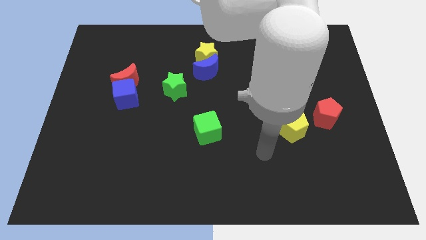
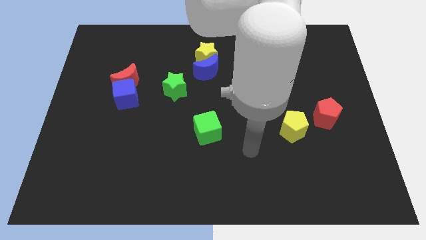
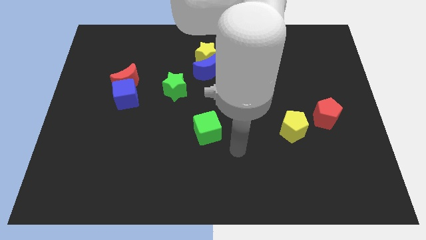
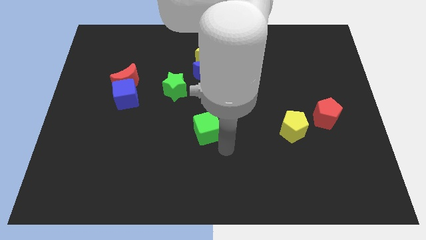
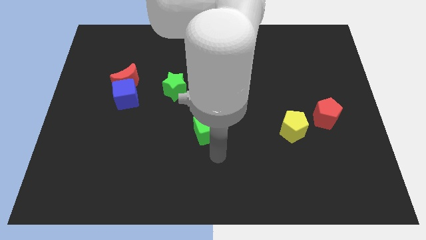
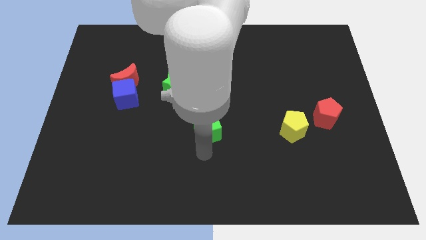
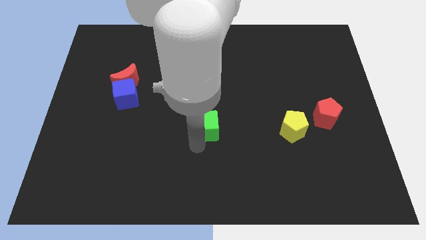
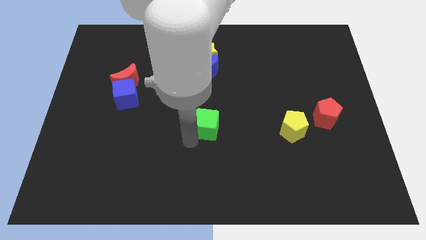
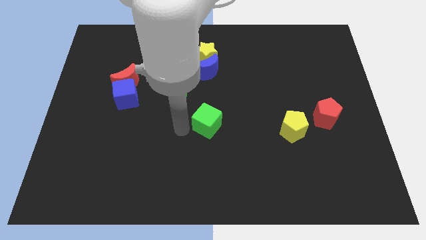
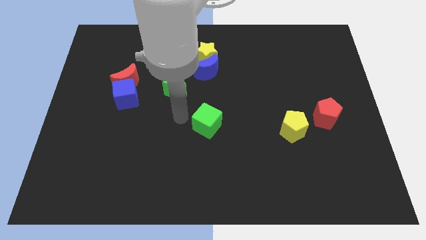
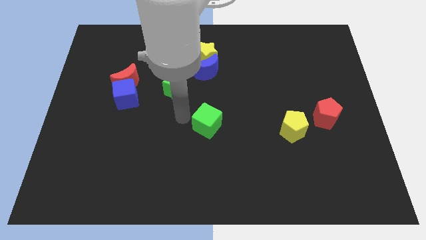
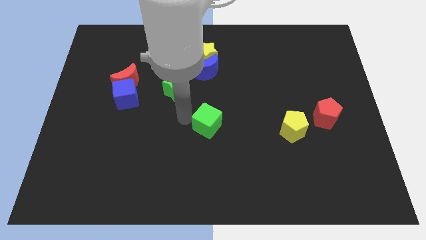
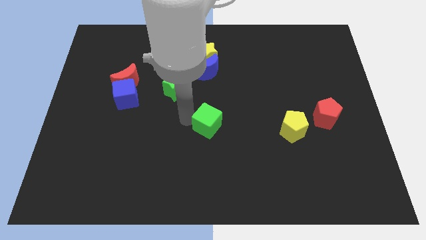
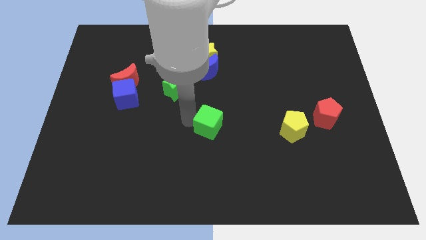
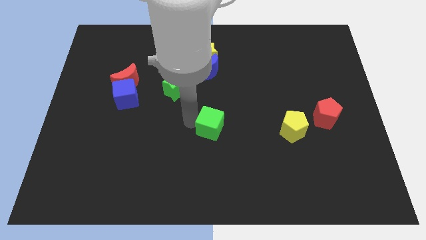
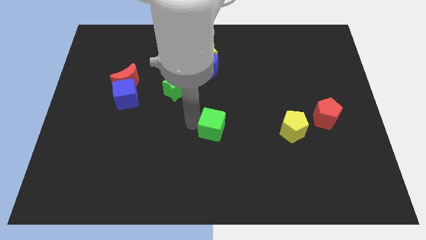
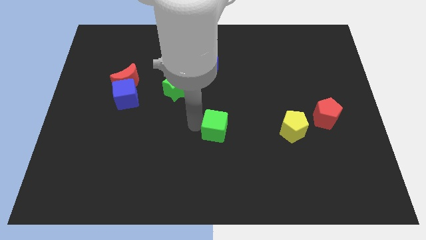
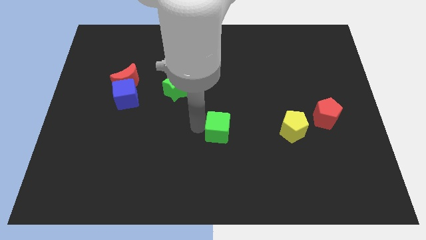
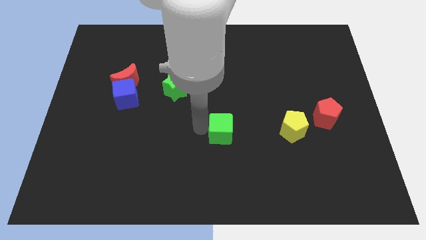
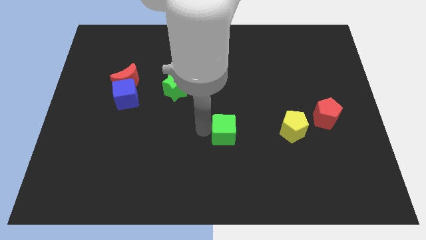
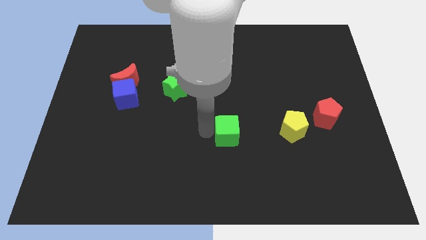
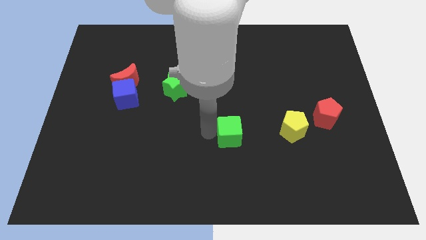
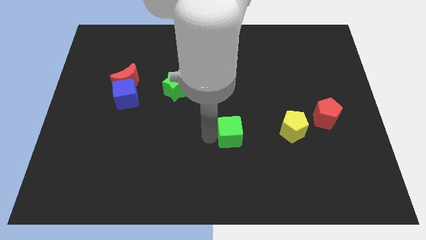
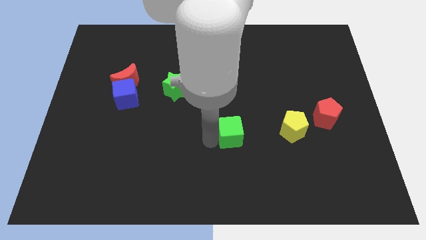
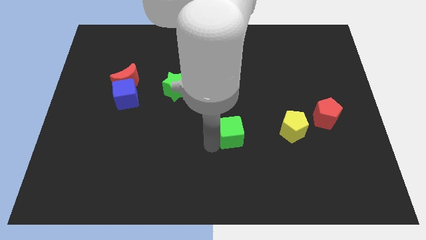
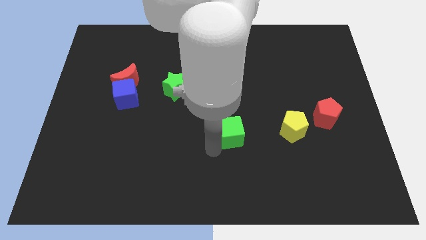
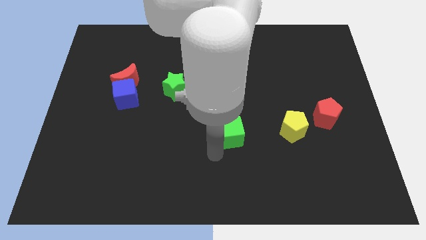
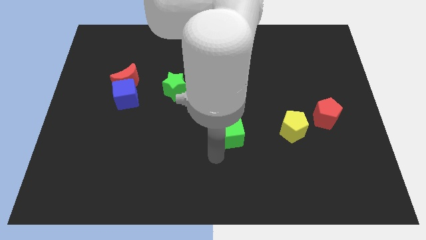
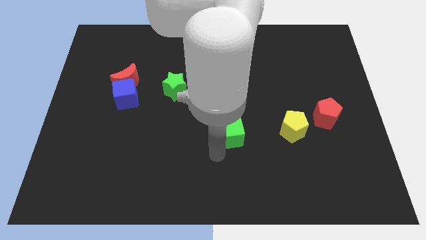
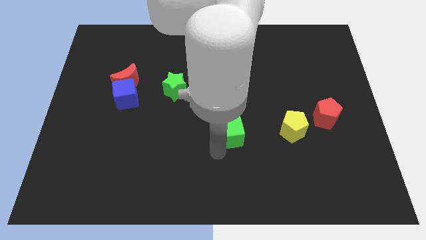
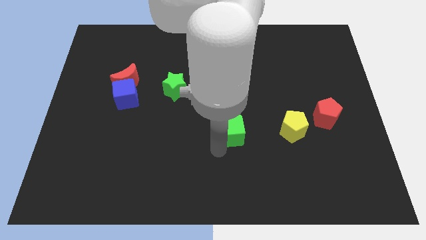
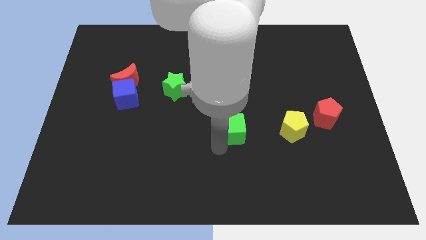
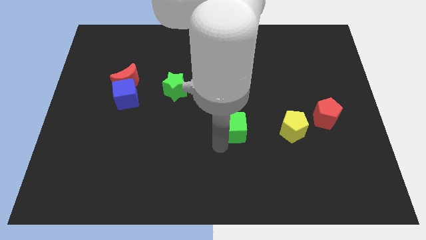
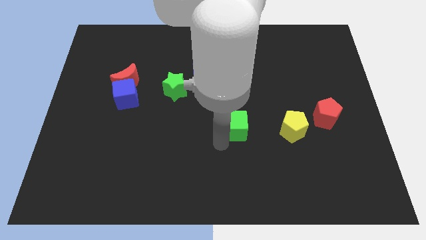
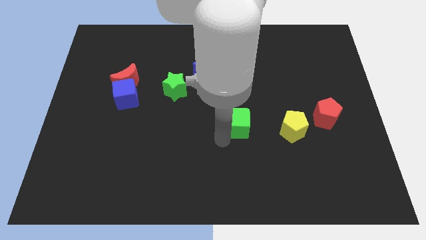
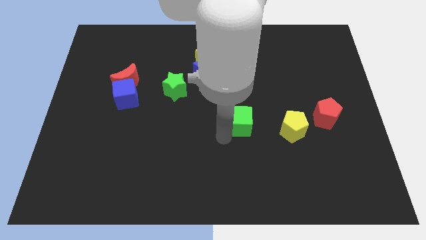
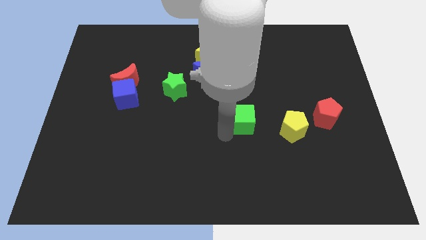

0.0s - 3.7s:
push the green cube slightly up and then to the right

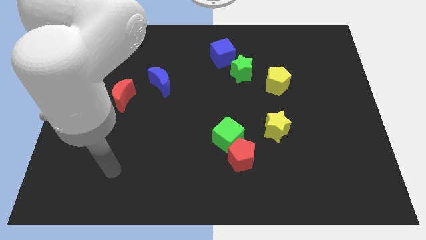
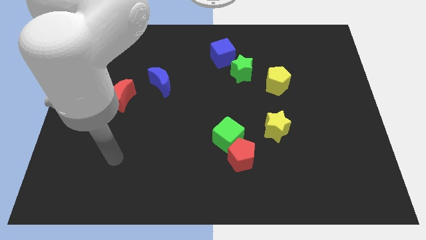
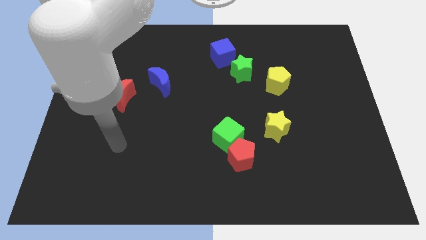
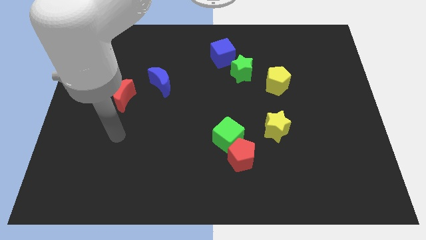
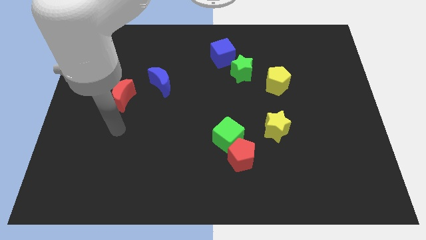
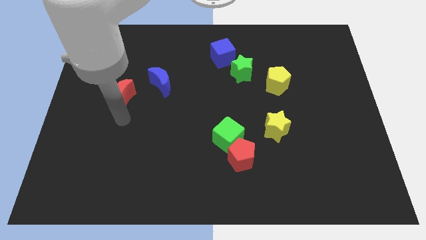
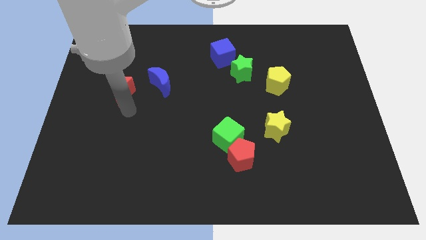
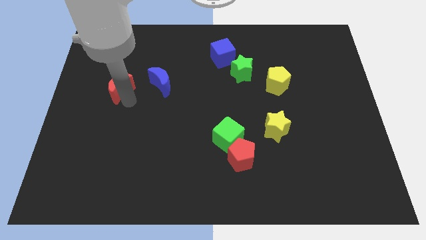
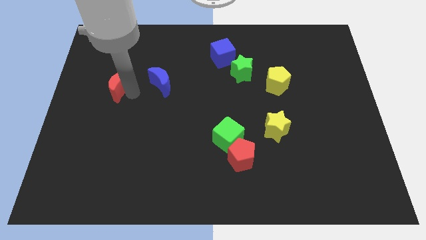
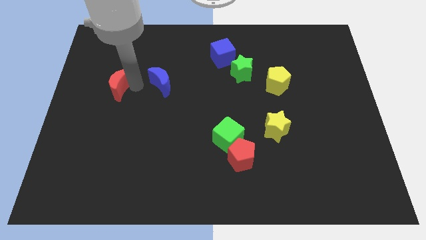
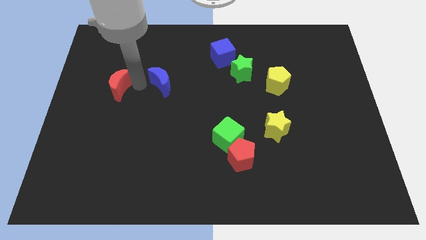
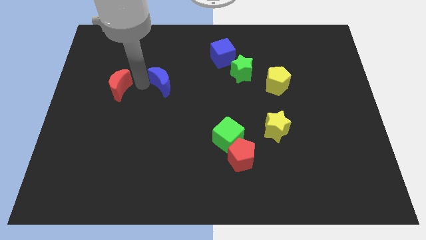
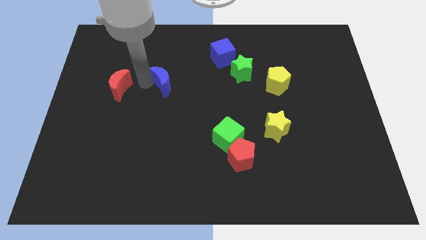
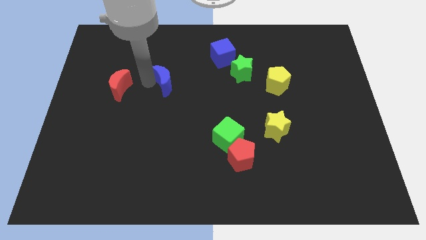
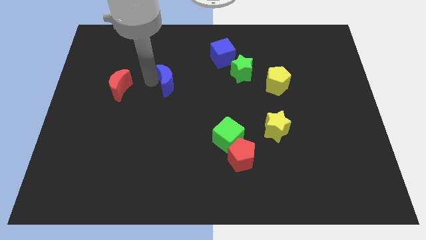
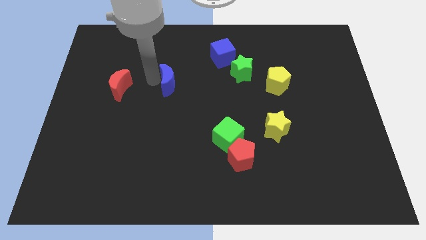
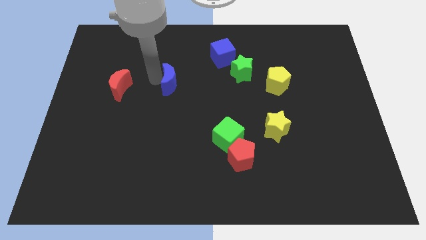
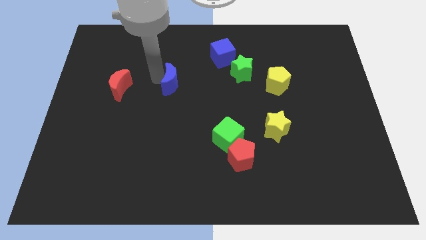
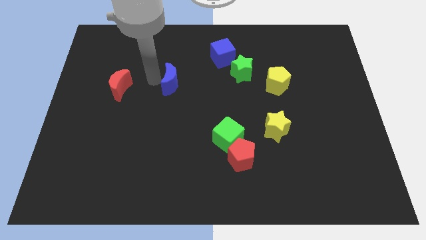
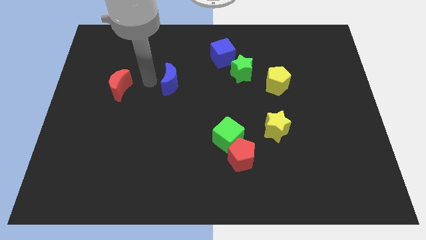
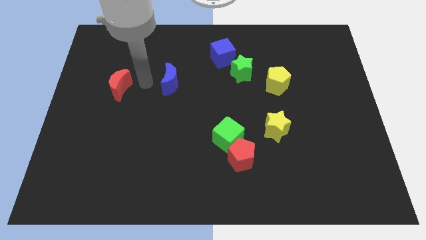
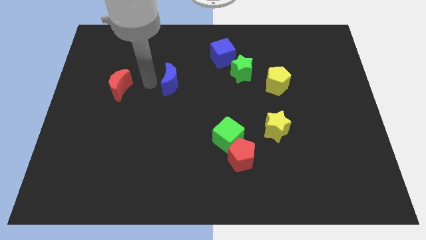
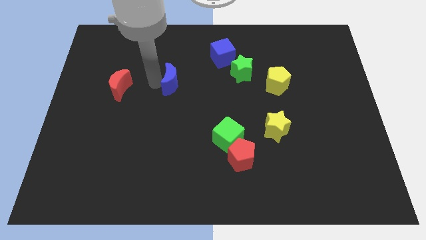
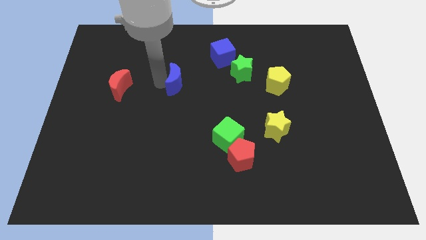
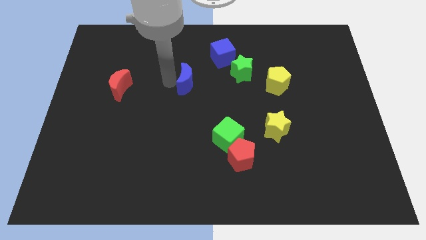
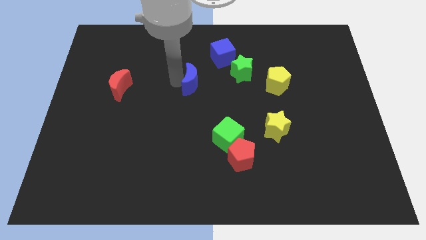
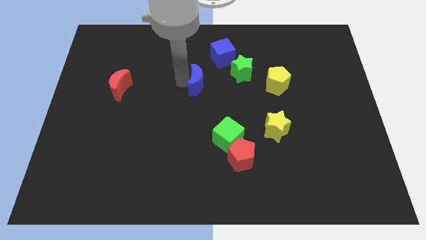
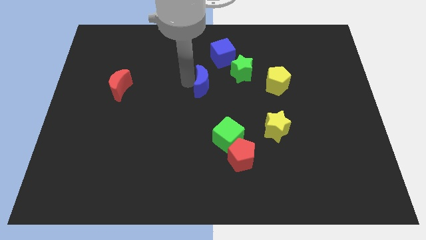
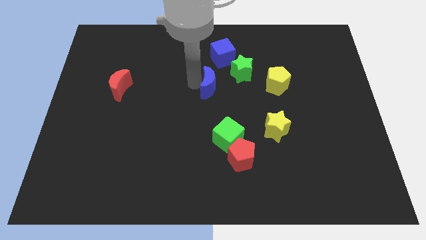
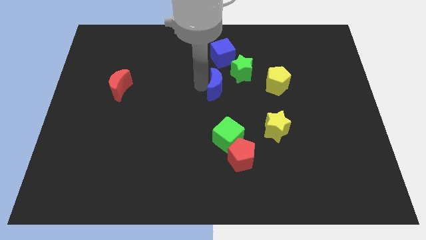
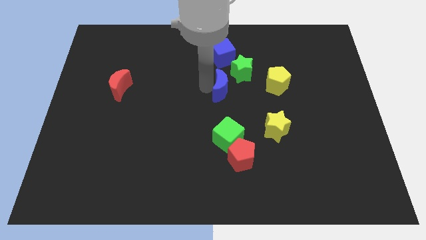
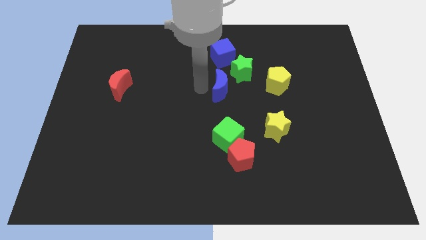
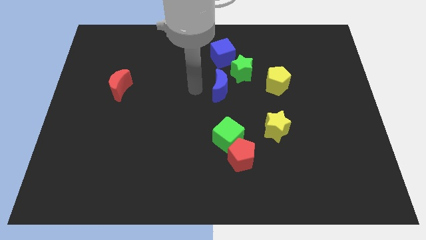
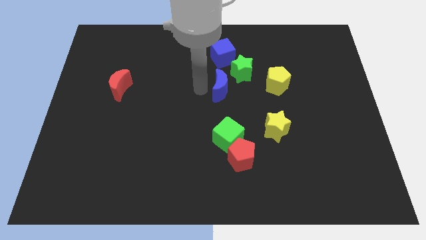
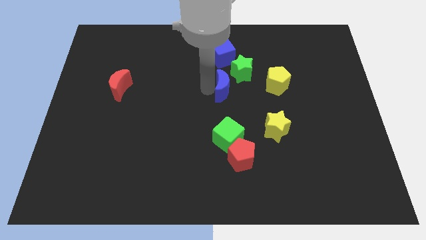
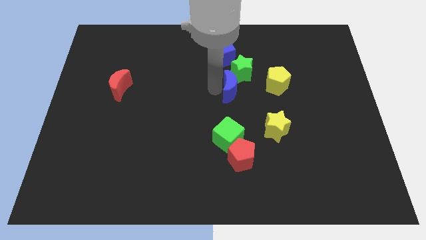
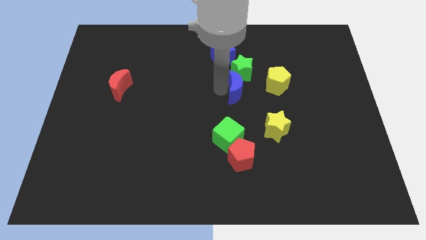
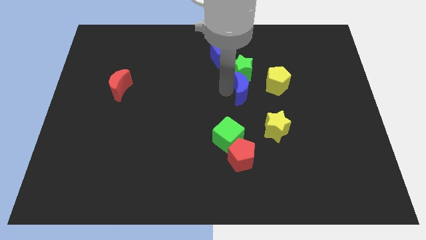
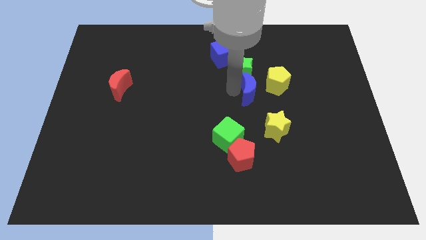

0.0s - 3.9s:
move the blue moon right

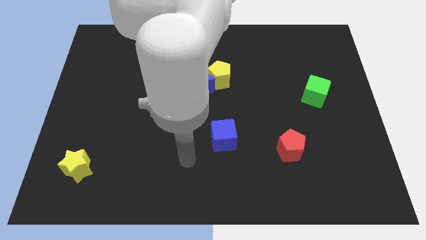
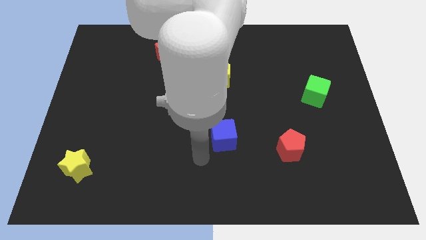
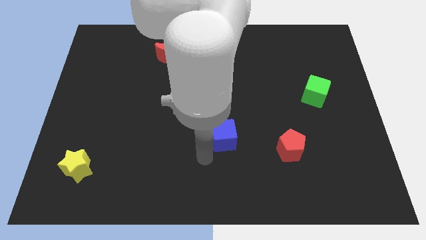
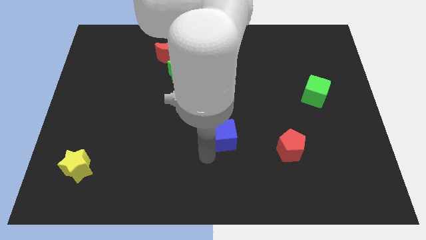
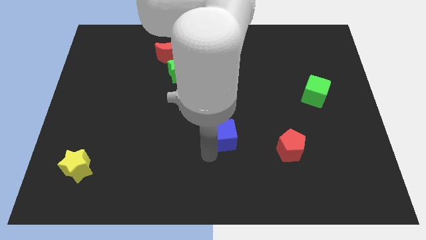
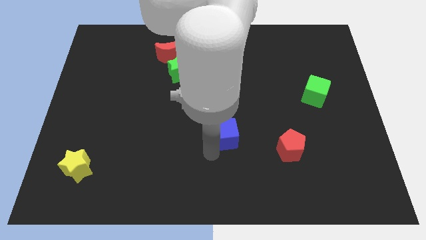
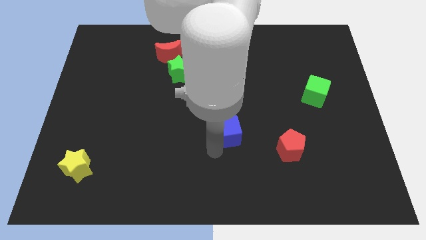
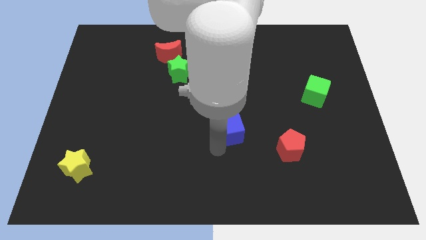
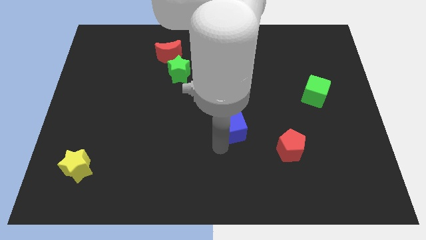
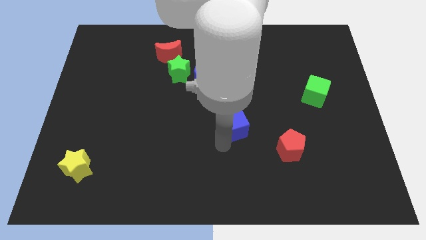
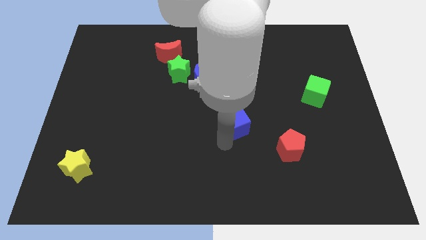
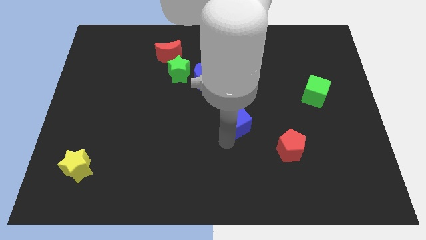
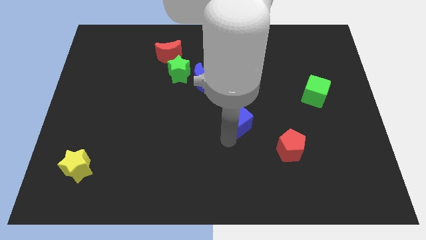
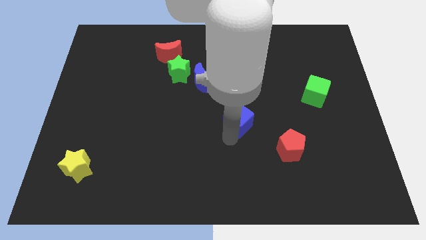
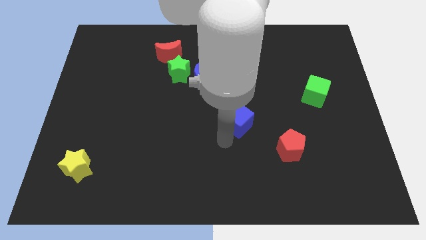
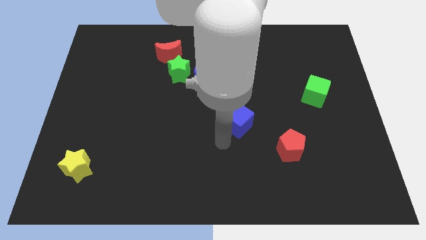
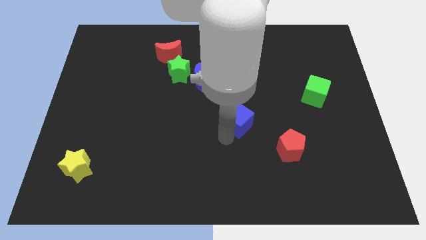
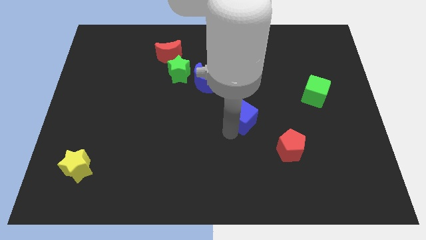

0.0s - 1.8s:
slide the blue cube somewhat diagonally up and right
